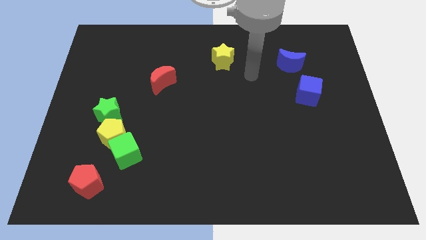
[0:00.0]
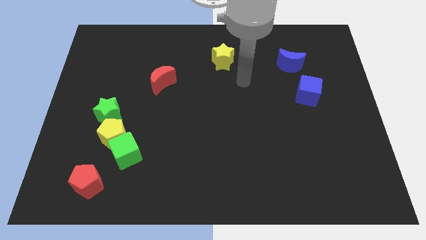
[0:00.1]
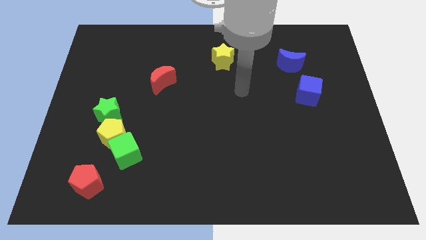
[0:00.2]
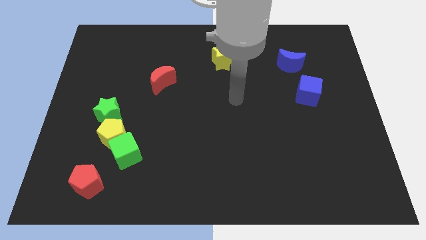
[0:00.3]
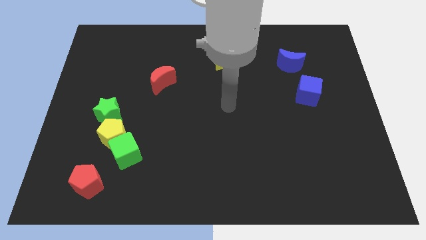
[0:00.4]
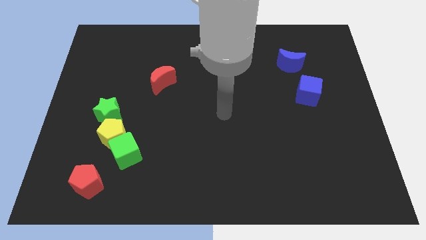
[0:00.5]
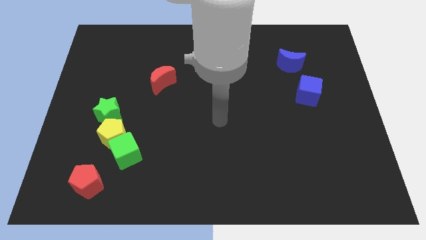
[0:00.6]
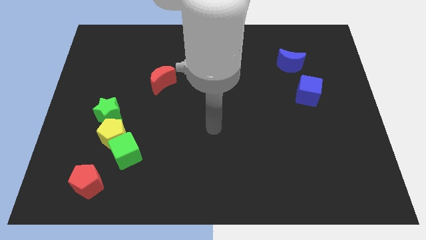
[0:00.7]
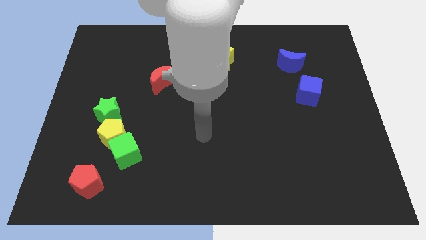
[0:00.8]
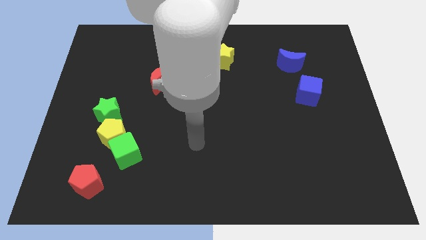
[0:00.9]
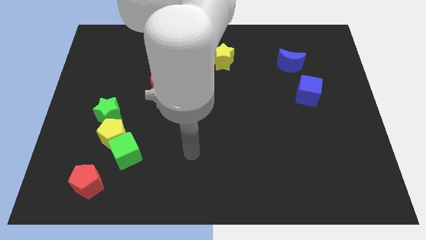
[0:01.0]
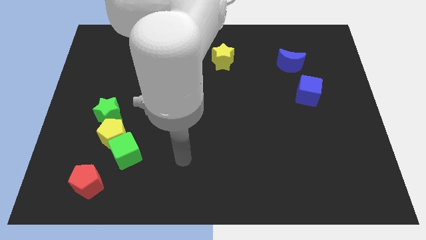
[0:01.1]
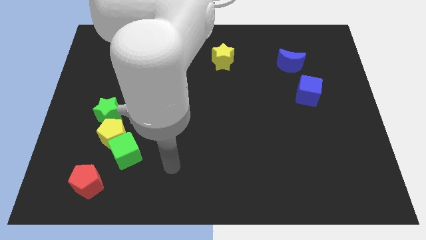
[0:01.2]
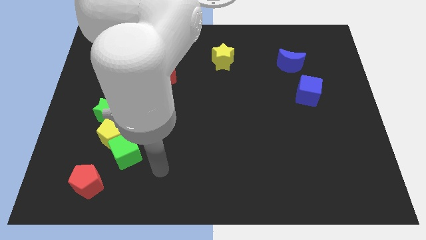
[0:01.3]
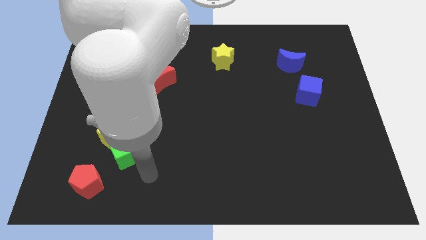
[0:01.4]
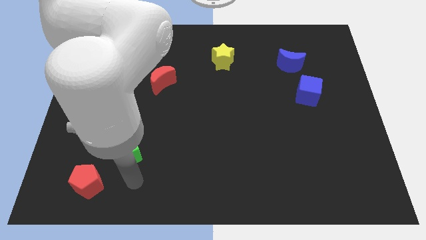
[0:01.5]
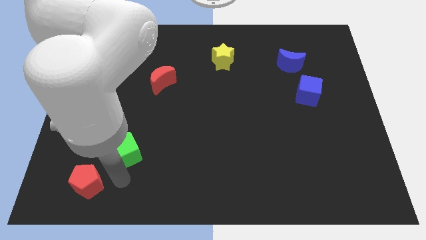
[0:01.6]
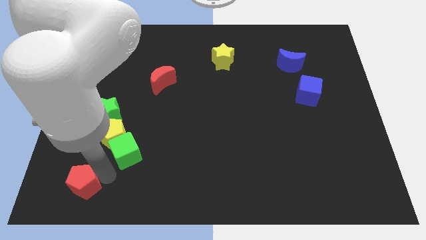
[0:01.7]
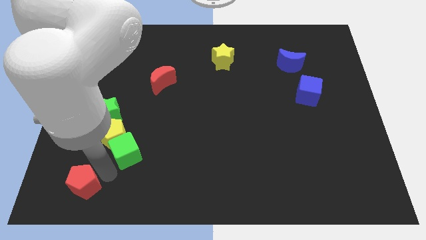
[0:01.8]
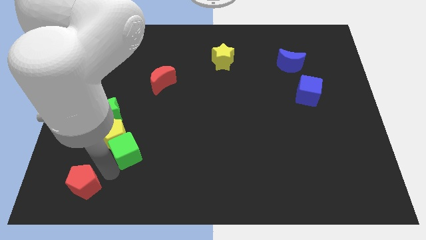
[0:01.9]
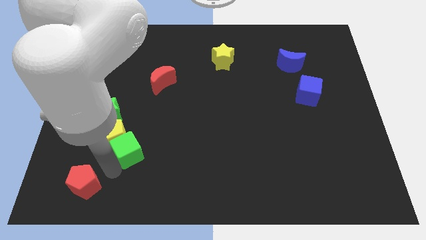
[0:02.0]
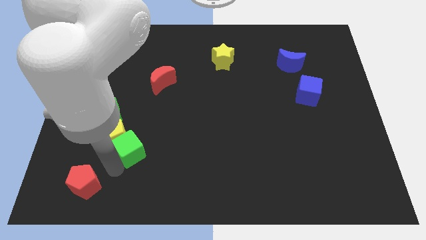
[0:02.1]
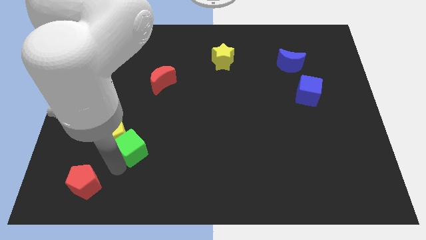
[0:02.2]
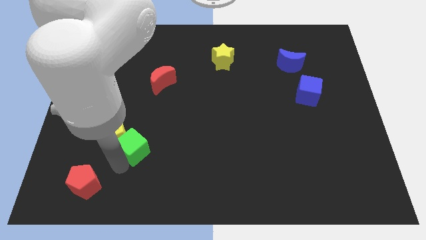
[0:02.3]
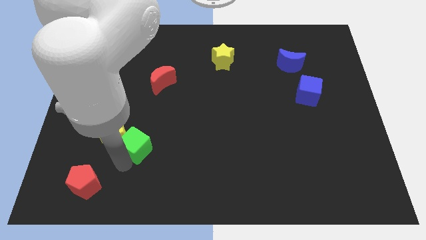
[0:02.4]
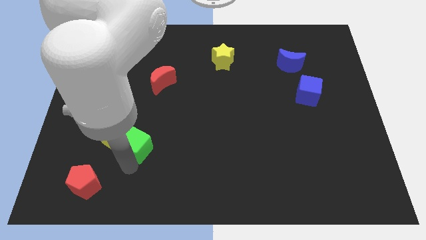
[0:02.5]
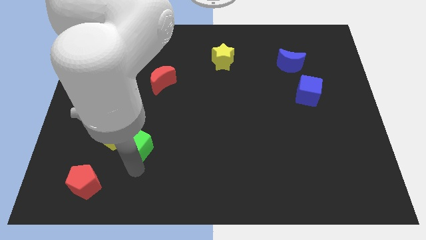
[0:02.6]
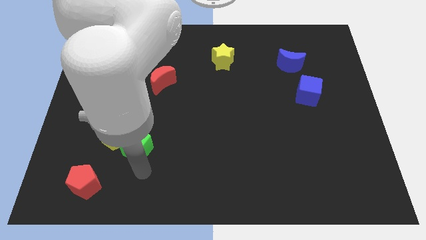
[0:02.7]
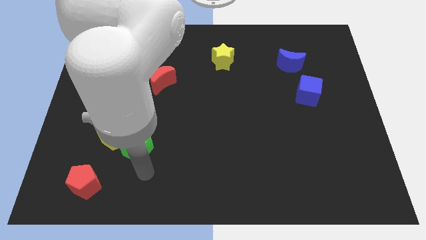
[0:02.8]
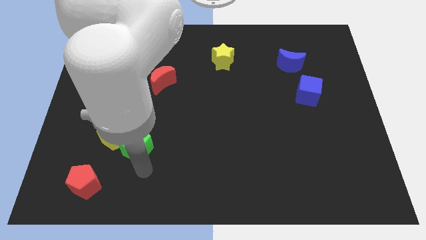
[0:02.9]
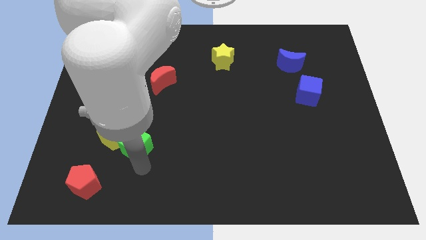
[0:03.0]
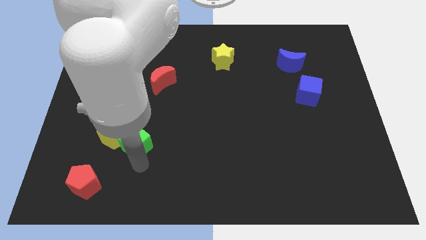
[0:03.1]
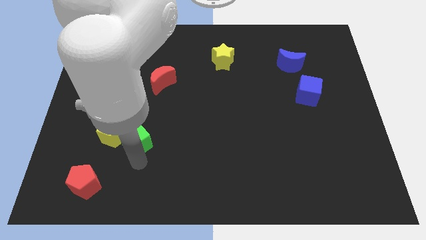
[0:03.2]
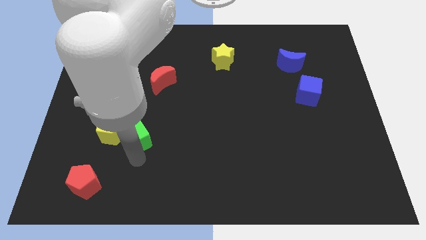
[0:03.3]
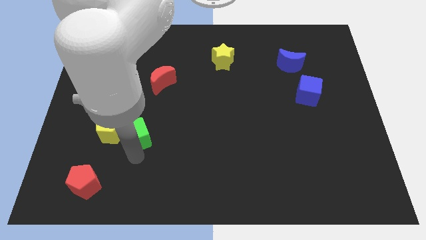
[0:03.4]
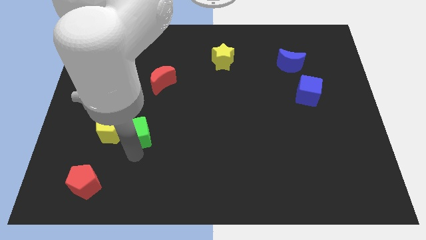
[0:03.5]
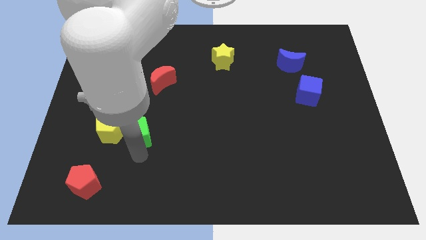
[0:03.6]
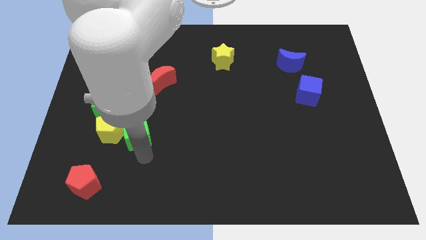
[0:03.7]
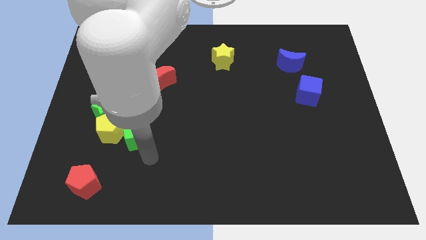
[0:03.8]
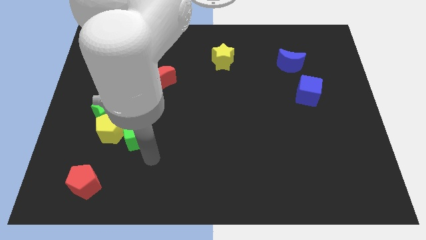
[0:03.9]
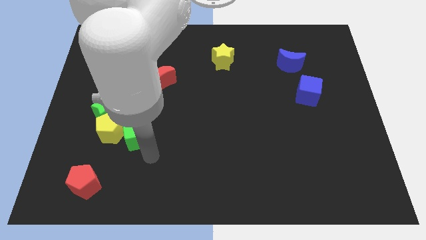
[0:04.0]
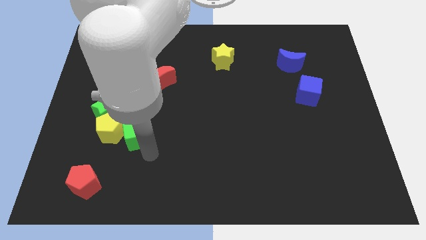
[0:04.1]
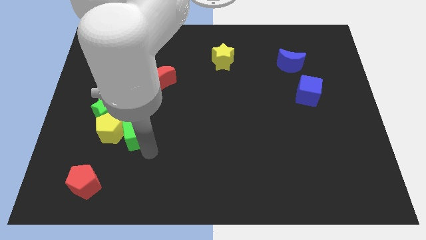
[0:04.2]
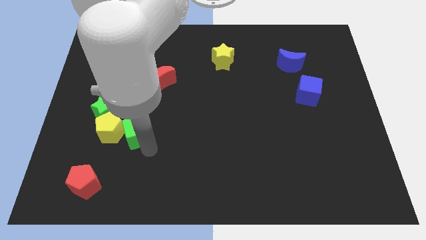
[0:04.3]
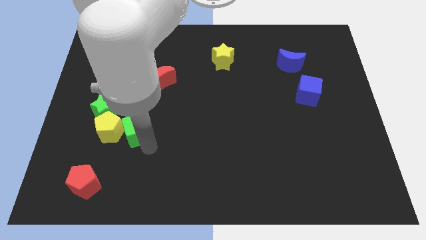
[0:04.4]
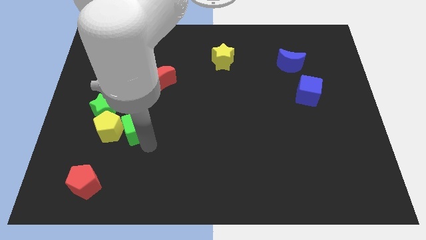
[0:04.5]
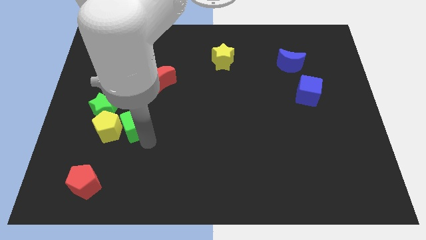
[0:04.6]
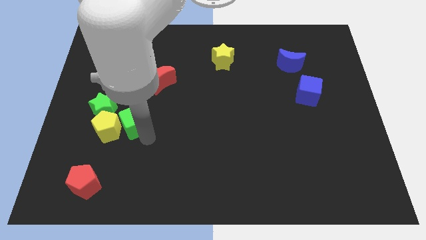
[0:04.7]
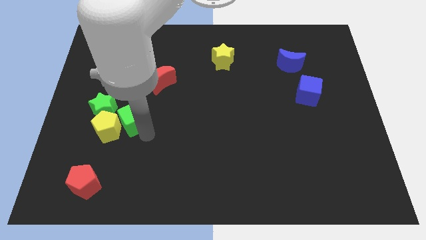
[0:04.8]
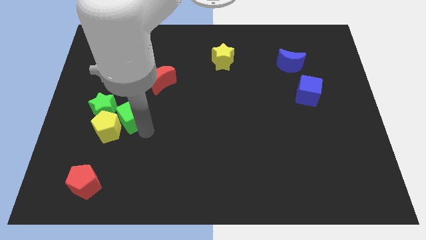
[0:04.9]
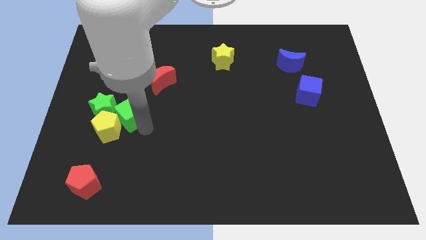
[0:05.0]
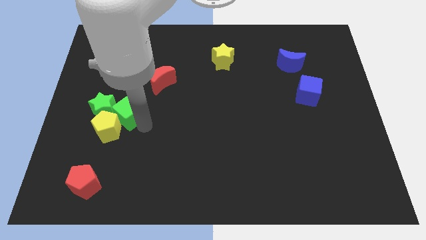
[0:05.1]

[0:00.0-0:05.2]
push the green cube to the green star

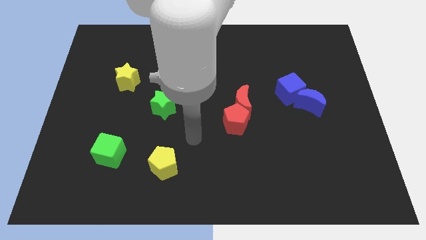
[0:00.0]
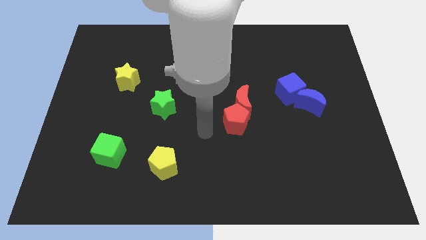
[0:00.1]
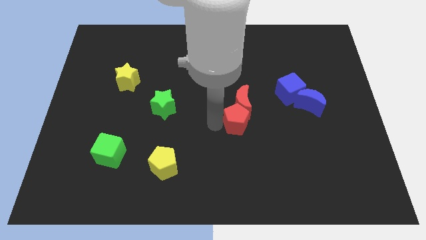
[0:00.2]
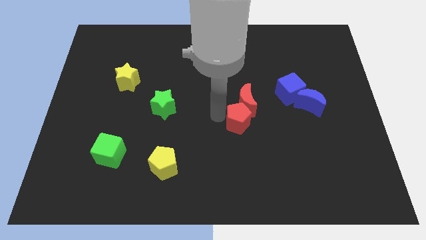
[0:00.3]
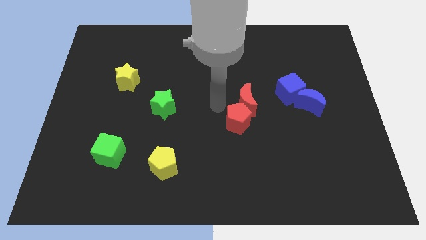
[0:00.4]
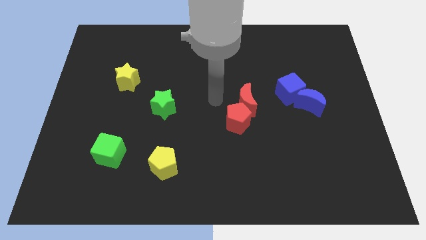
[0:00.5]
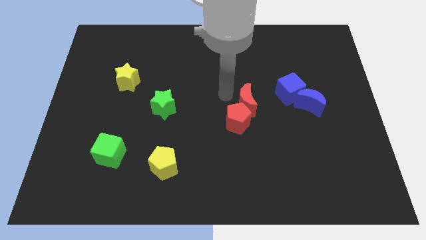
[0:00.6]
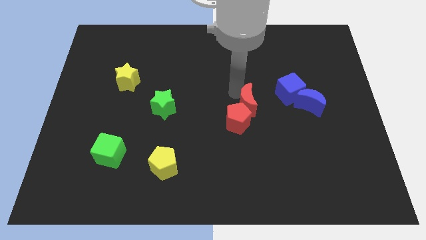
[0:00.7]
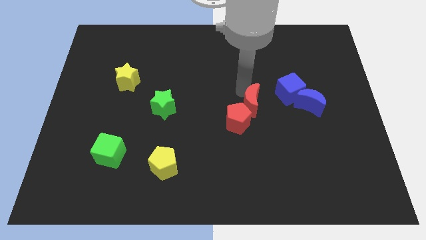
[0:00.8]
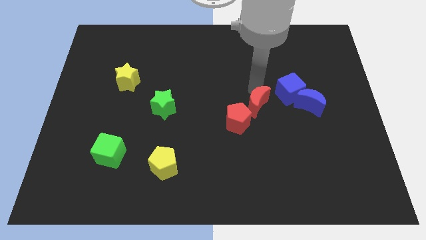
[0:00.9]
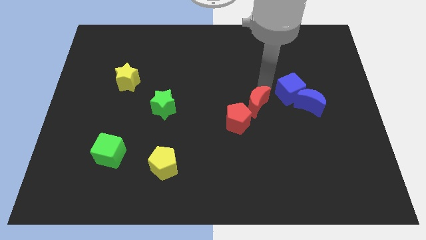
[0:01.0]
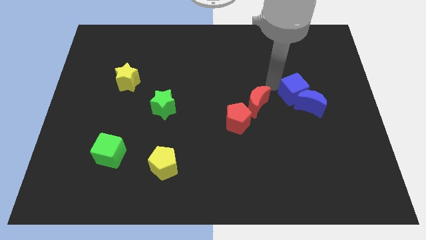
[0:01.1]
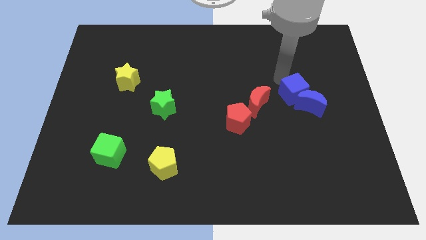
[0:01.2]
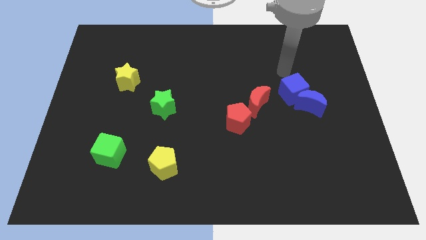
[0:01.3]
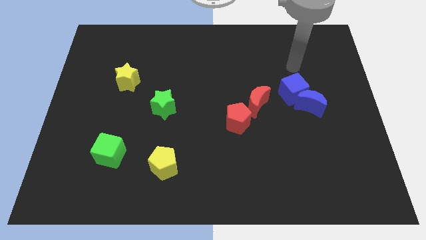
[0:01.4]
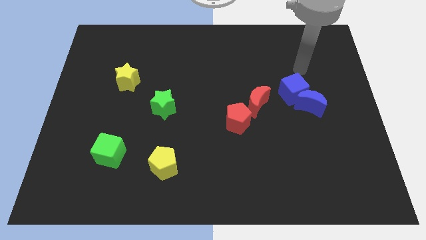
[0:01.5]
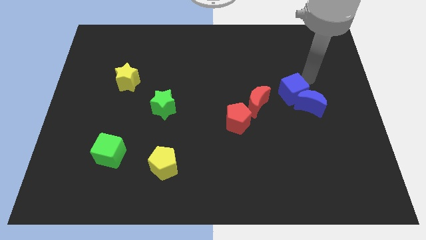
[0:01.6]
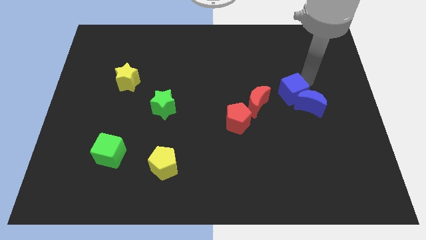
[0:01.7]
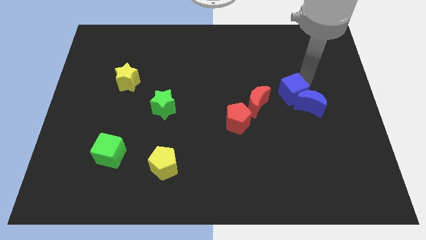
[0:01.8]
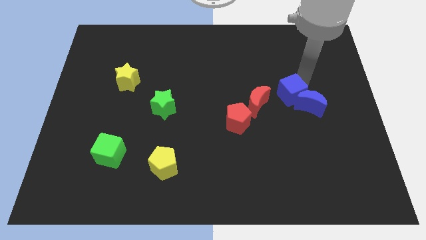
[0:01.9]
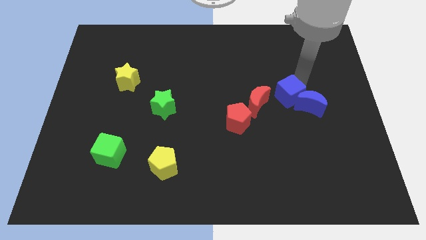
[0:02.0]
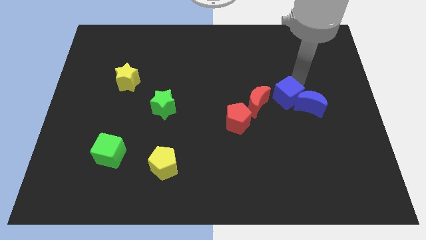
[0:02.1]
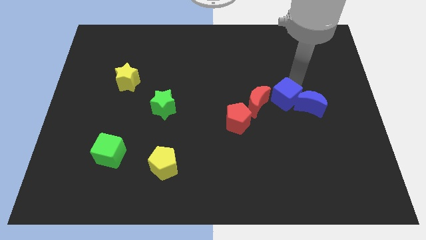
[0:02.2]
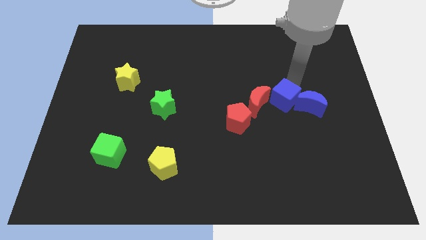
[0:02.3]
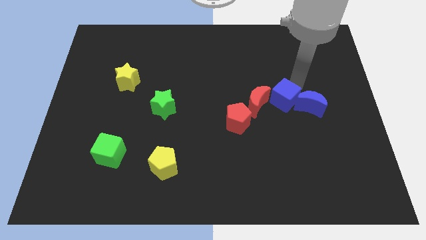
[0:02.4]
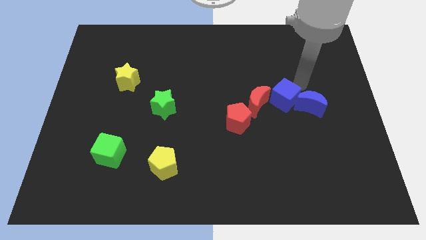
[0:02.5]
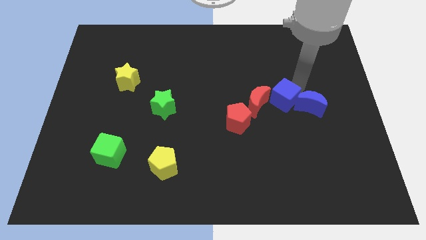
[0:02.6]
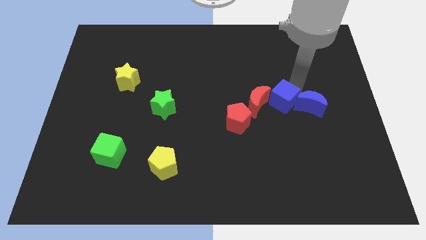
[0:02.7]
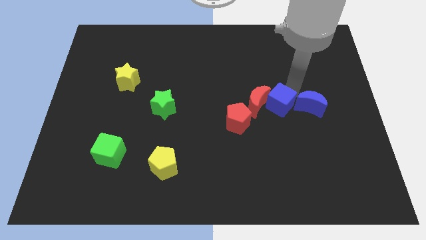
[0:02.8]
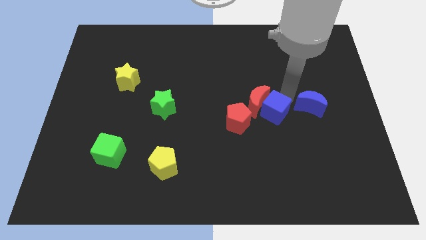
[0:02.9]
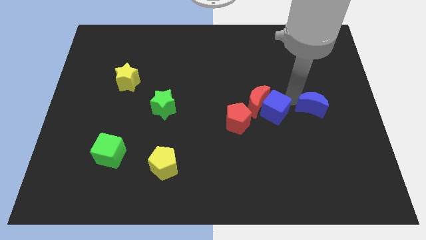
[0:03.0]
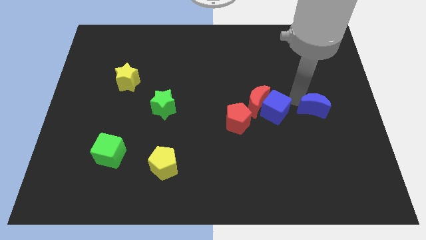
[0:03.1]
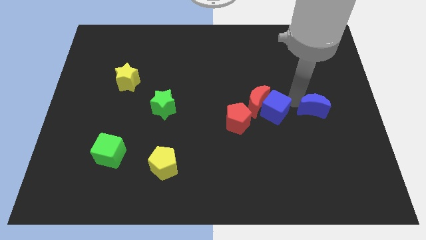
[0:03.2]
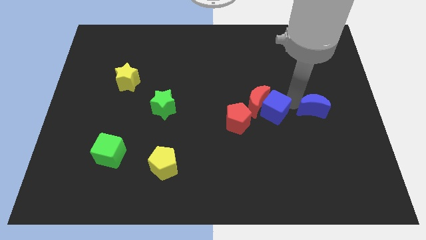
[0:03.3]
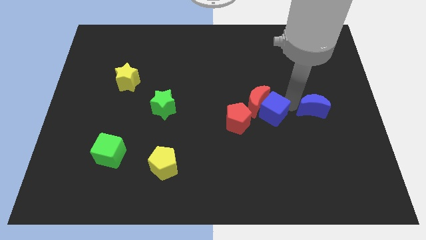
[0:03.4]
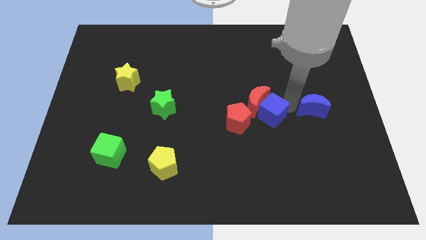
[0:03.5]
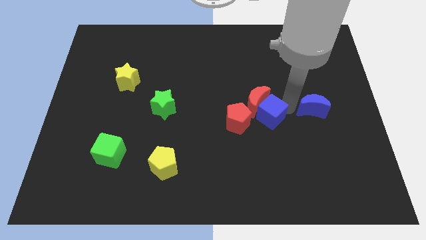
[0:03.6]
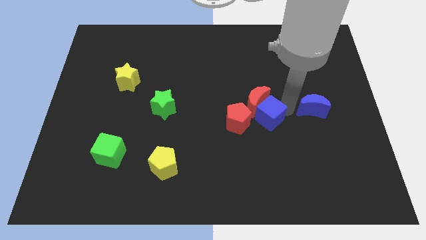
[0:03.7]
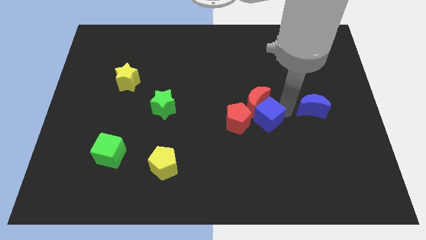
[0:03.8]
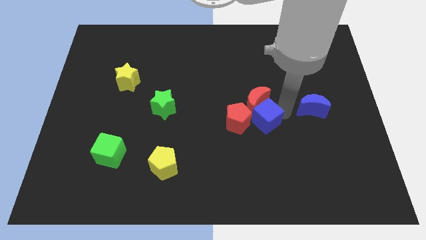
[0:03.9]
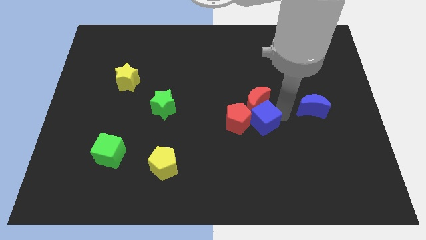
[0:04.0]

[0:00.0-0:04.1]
move the blue cube towards the red pentagon
